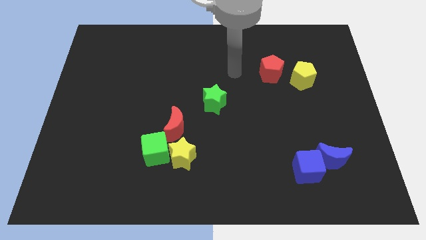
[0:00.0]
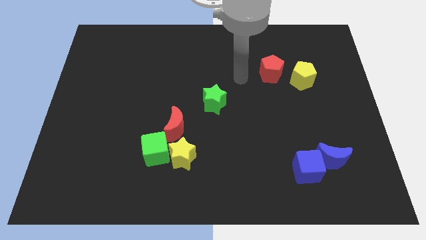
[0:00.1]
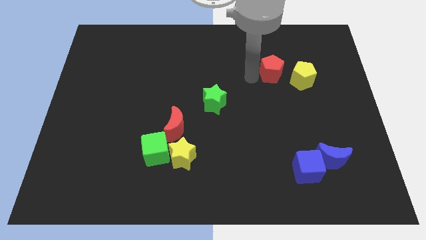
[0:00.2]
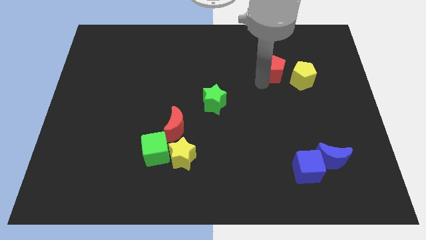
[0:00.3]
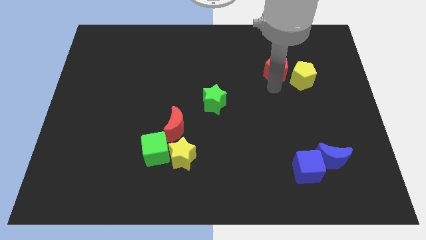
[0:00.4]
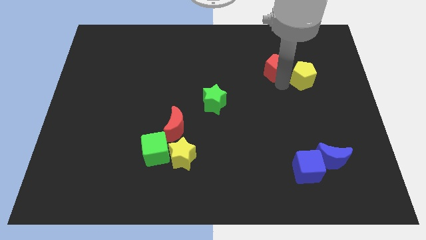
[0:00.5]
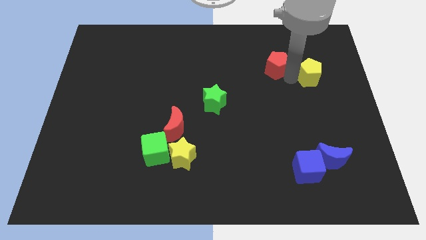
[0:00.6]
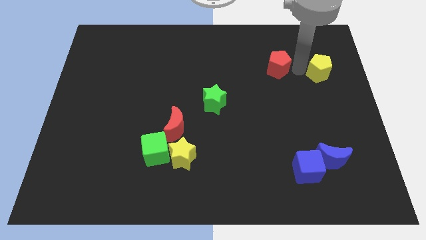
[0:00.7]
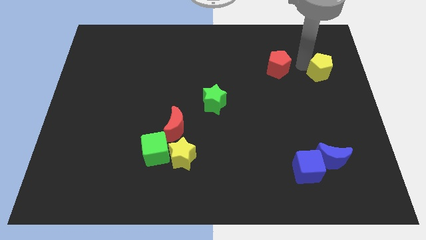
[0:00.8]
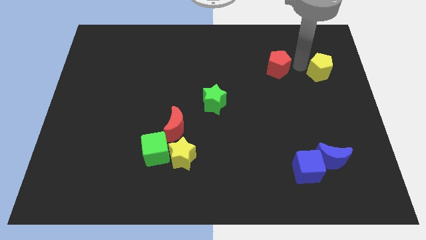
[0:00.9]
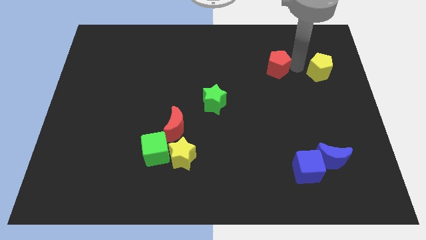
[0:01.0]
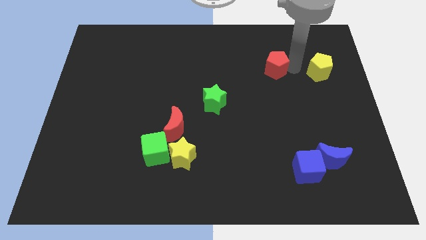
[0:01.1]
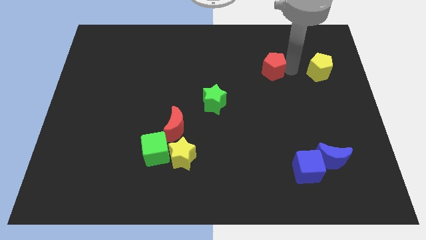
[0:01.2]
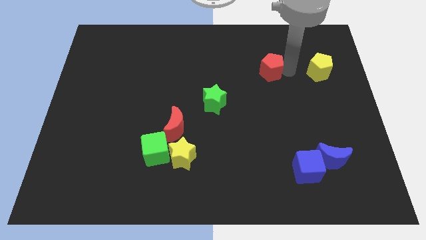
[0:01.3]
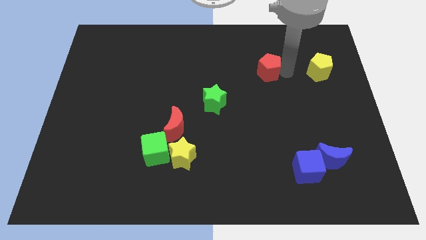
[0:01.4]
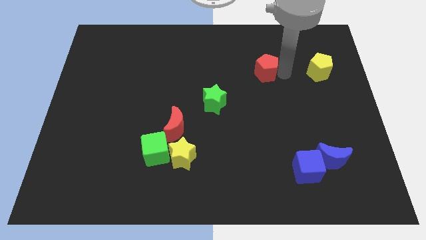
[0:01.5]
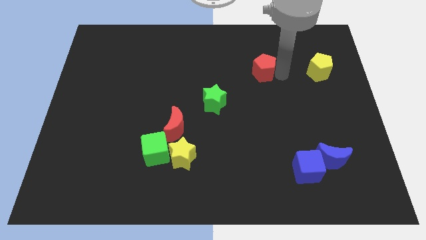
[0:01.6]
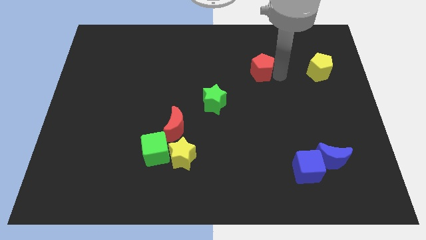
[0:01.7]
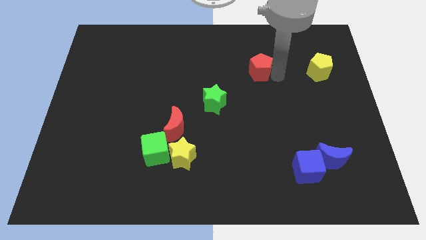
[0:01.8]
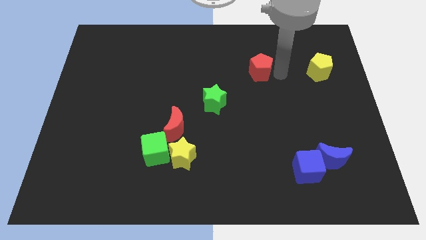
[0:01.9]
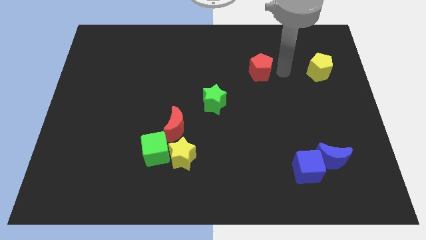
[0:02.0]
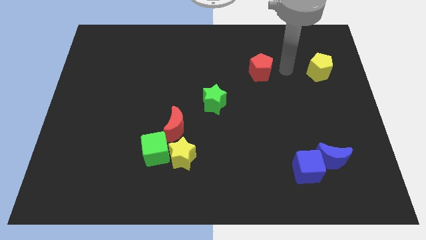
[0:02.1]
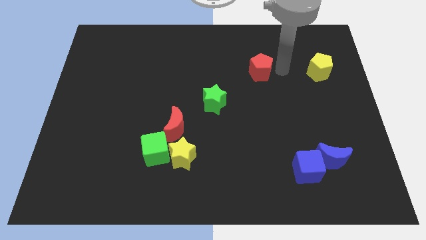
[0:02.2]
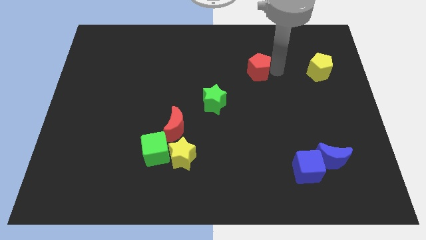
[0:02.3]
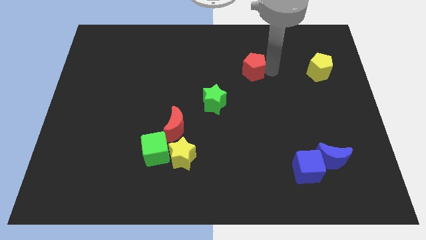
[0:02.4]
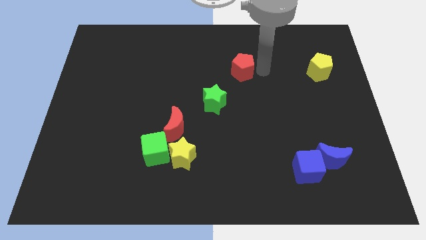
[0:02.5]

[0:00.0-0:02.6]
push the red pentagon a little to the left

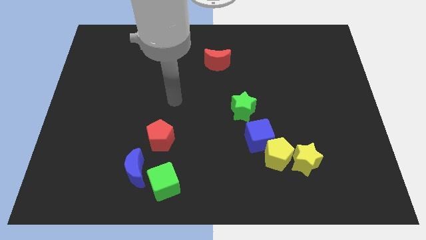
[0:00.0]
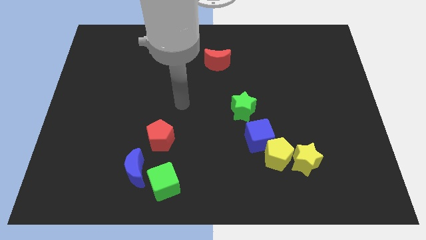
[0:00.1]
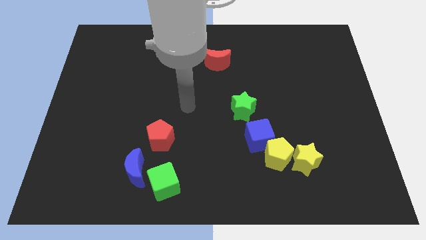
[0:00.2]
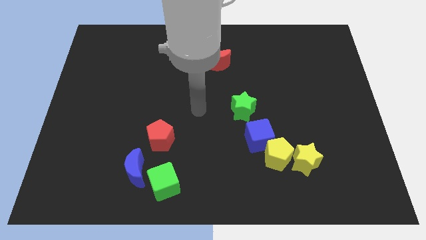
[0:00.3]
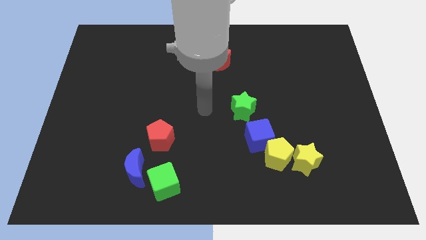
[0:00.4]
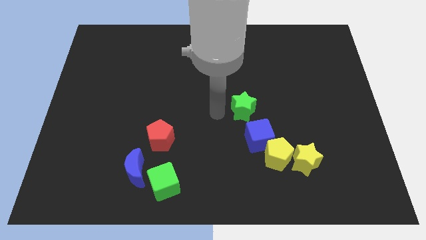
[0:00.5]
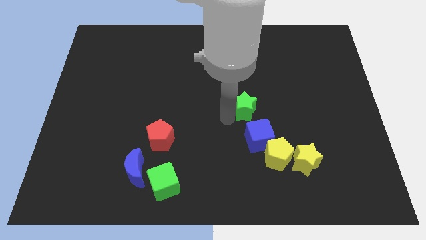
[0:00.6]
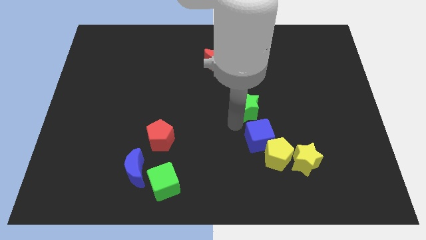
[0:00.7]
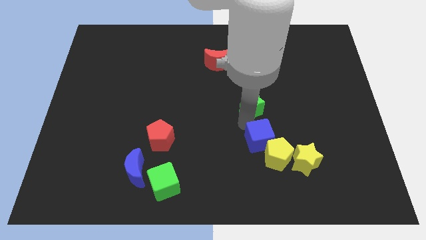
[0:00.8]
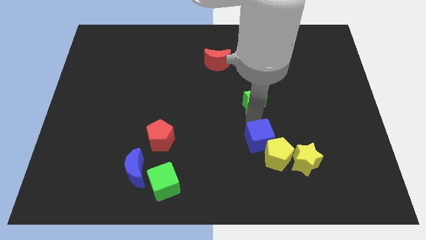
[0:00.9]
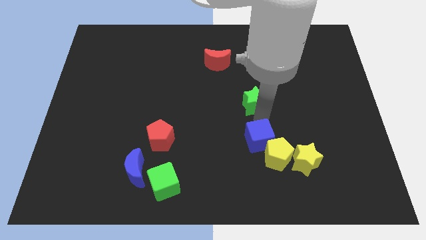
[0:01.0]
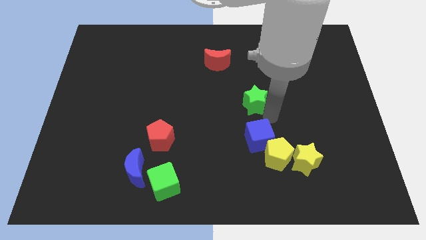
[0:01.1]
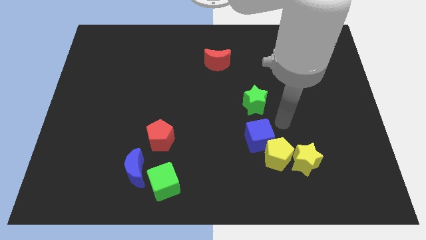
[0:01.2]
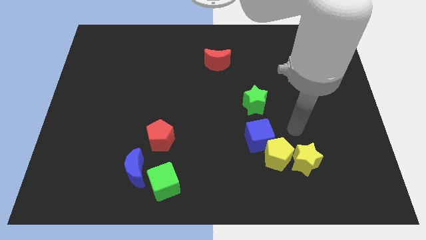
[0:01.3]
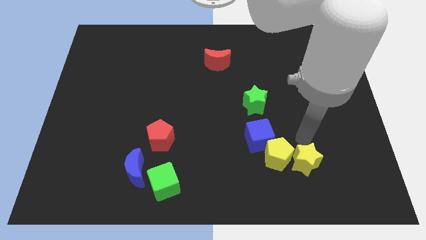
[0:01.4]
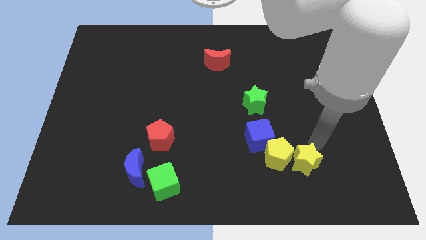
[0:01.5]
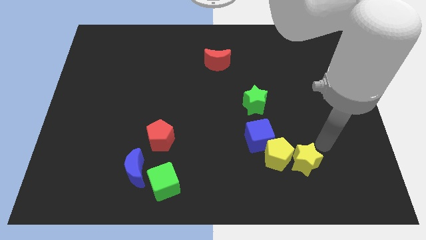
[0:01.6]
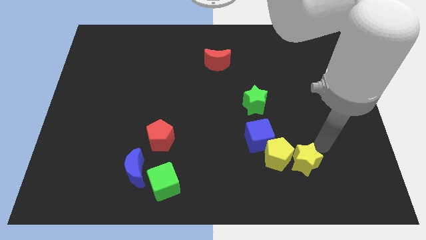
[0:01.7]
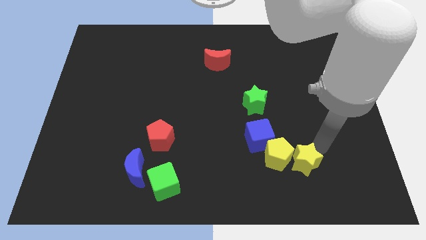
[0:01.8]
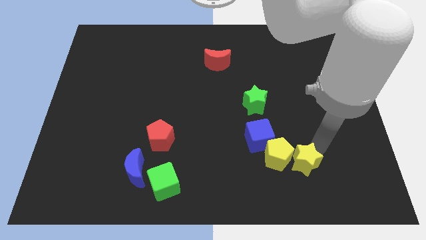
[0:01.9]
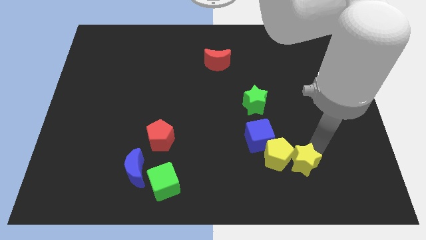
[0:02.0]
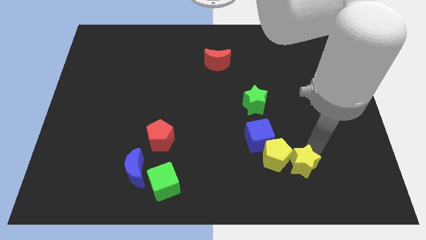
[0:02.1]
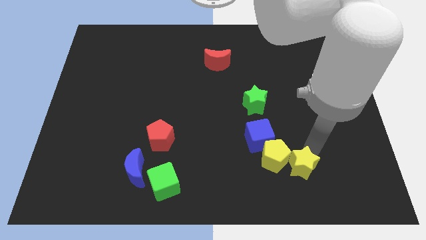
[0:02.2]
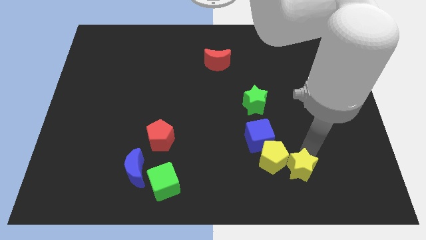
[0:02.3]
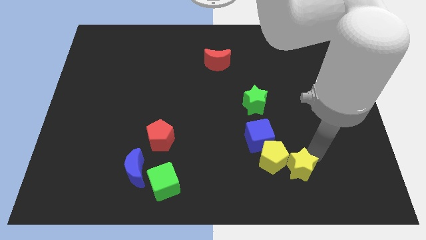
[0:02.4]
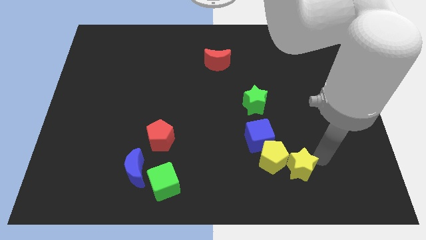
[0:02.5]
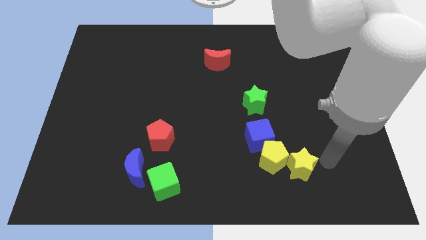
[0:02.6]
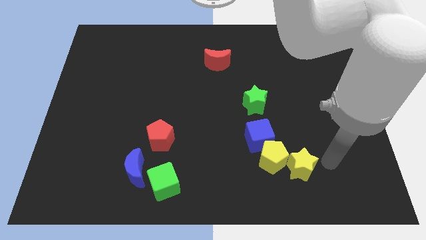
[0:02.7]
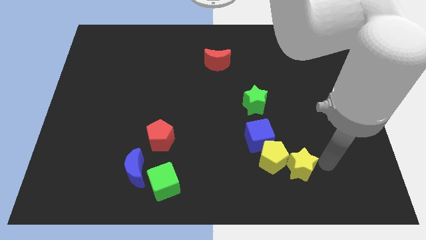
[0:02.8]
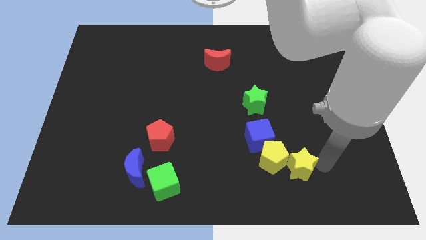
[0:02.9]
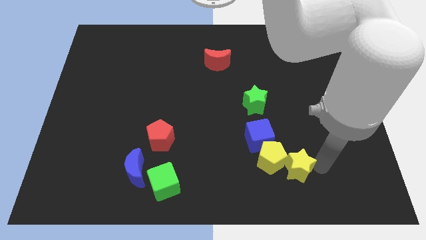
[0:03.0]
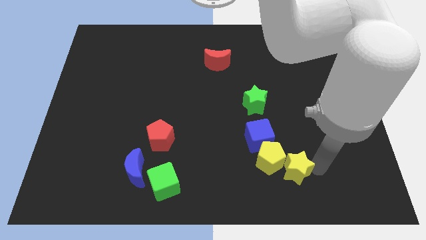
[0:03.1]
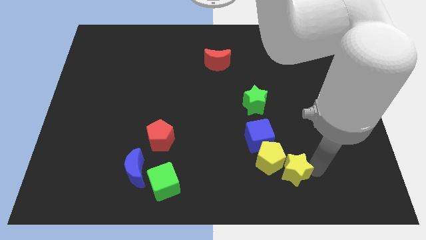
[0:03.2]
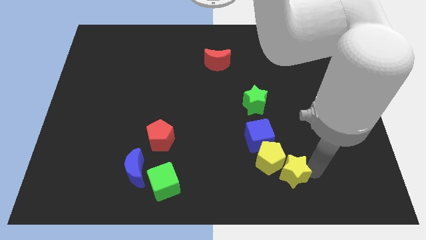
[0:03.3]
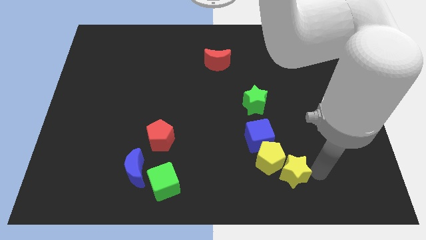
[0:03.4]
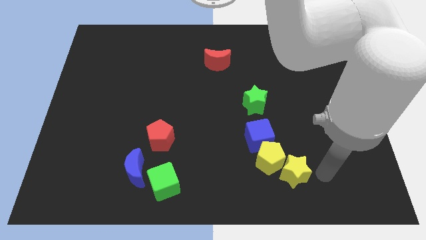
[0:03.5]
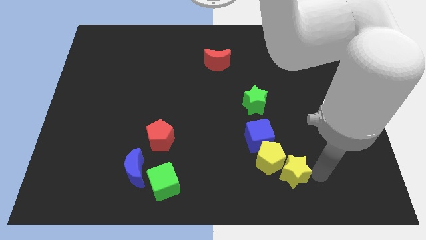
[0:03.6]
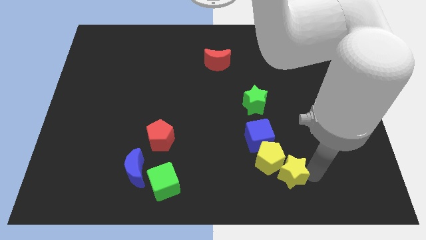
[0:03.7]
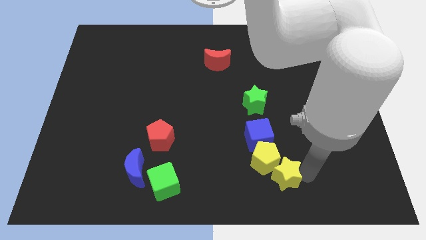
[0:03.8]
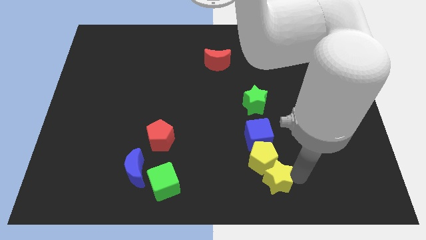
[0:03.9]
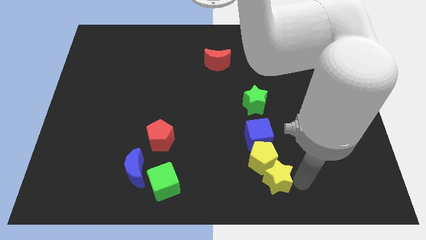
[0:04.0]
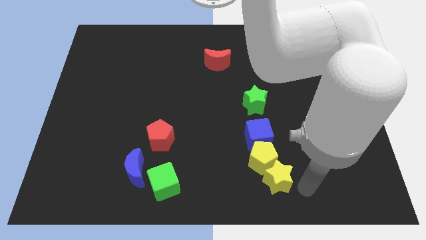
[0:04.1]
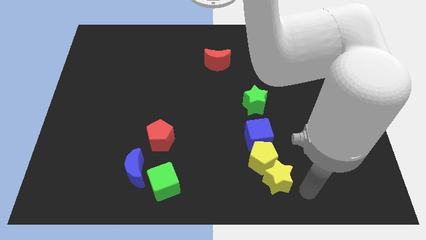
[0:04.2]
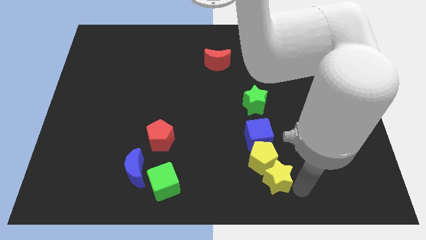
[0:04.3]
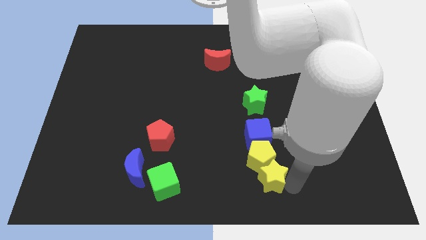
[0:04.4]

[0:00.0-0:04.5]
slightly push the yellow star left

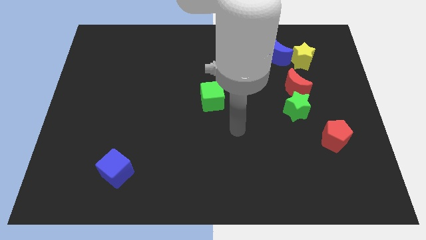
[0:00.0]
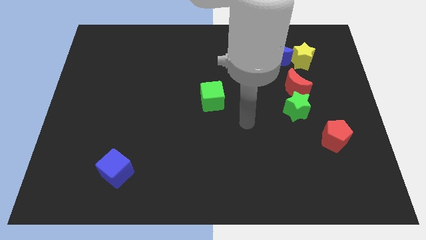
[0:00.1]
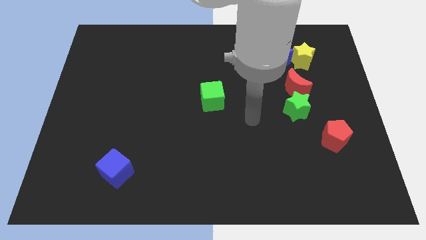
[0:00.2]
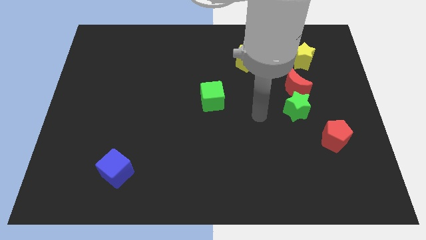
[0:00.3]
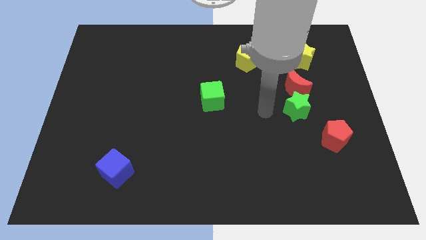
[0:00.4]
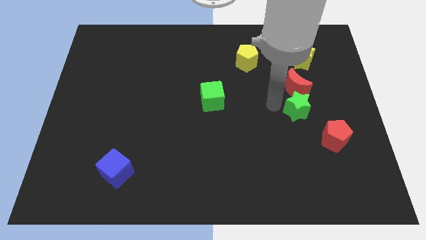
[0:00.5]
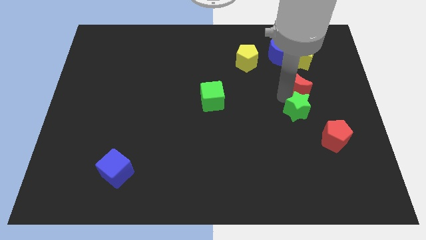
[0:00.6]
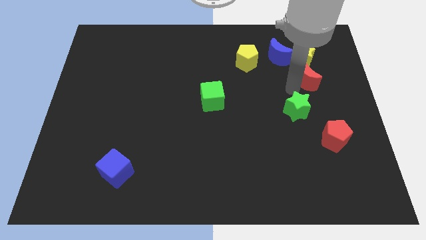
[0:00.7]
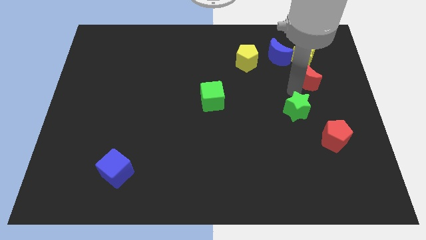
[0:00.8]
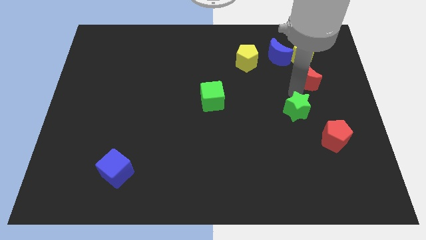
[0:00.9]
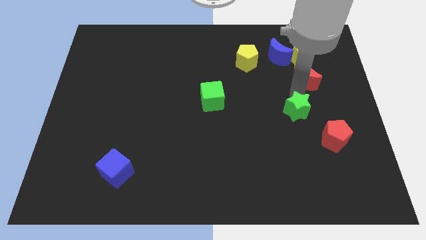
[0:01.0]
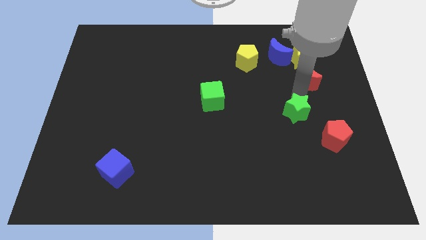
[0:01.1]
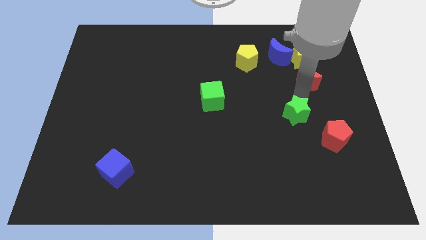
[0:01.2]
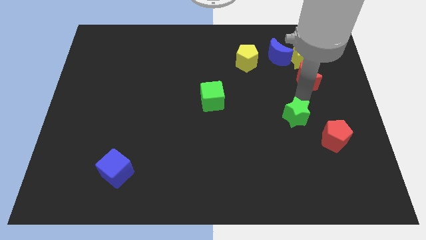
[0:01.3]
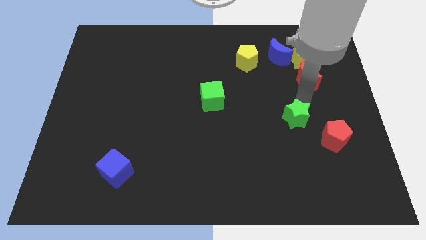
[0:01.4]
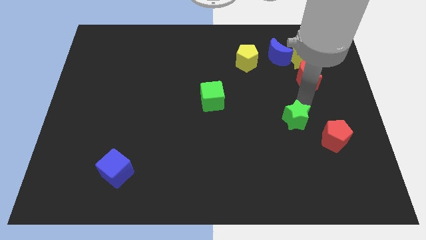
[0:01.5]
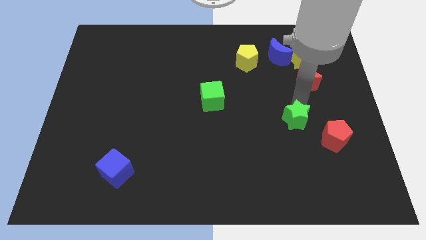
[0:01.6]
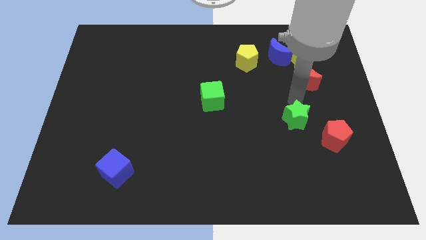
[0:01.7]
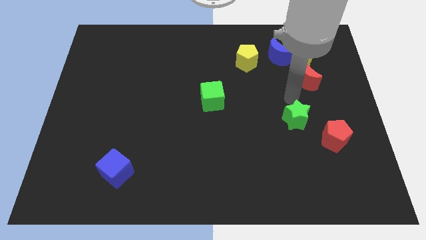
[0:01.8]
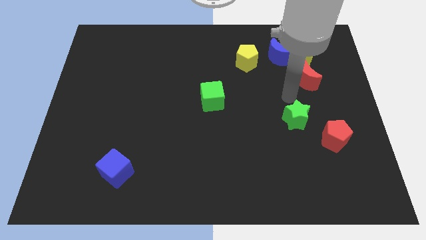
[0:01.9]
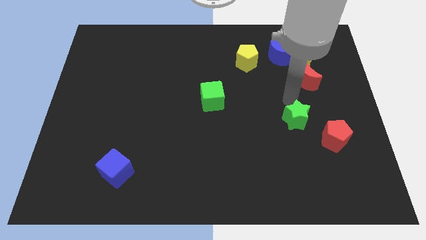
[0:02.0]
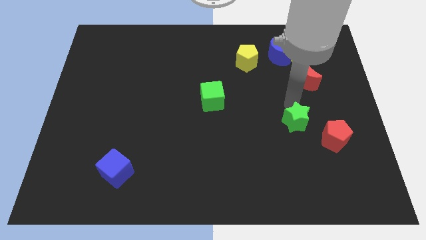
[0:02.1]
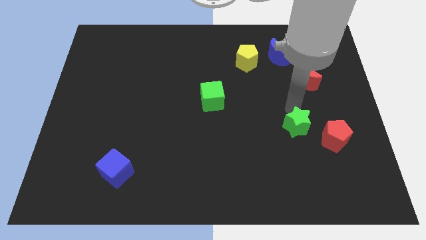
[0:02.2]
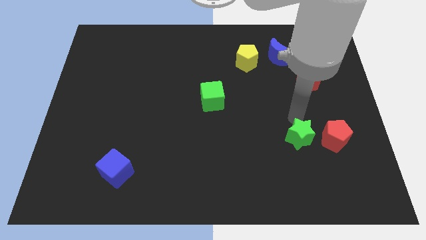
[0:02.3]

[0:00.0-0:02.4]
move the green star downwards a little
